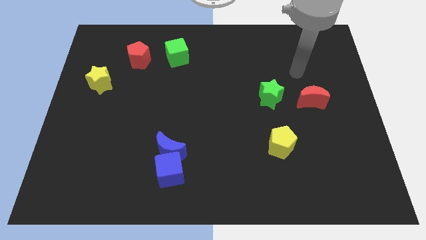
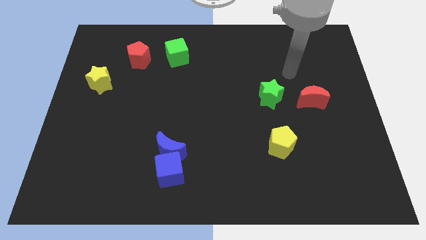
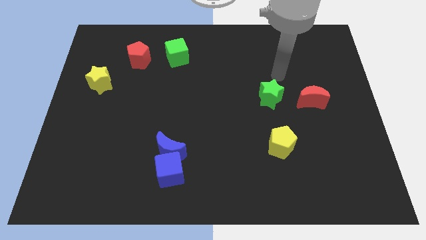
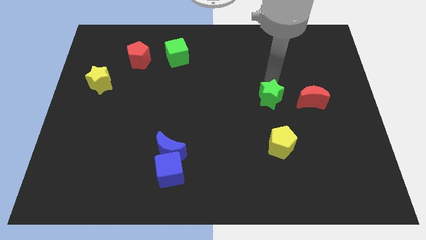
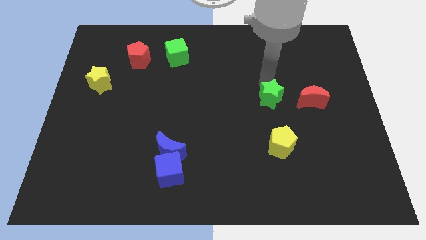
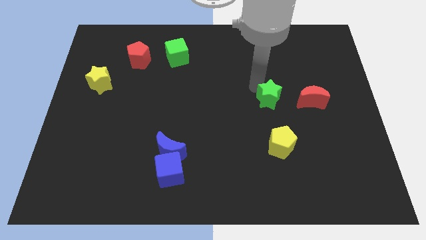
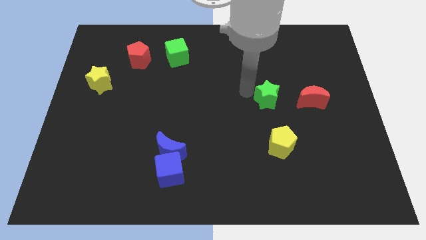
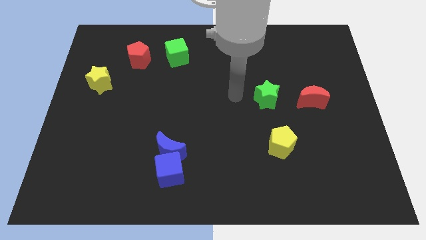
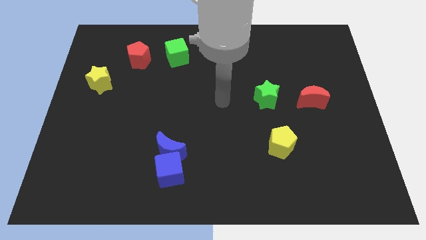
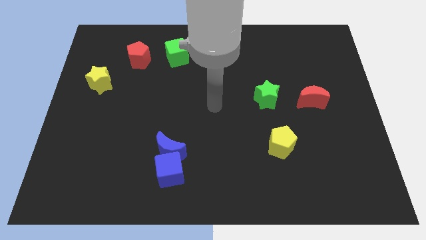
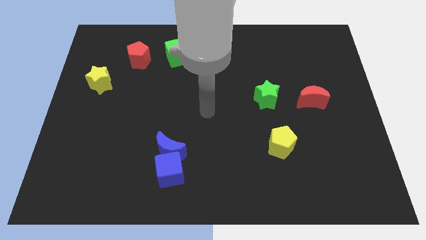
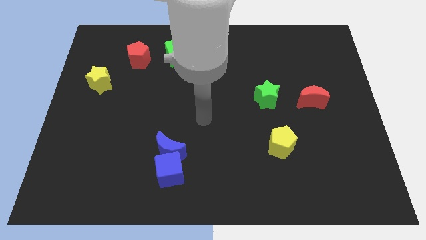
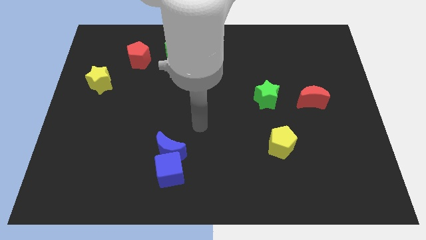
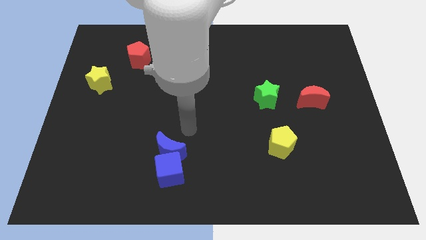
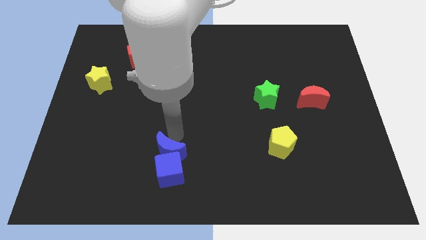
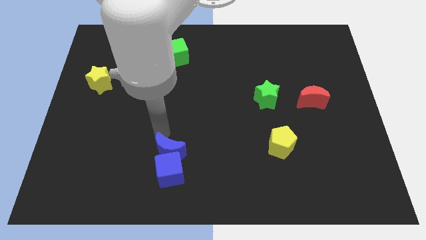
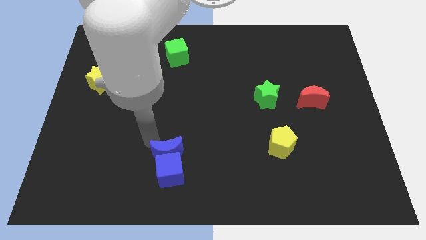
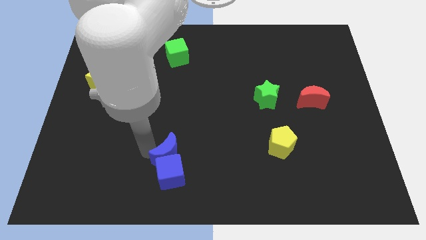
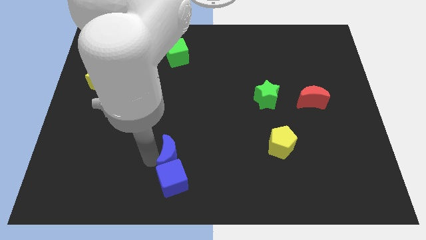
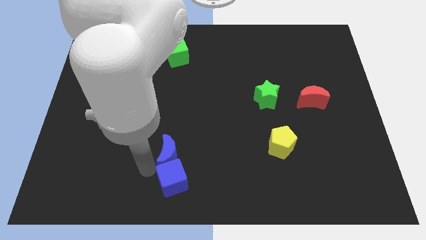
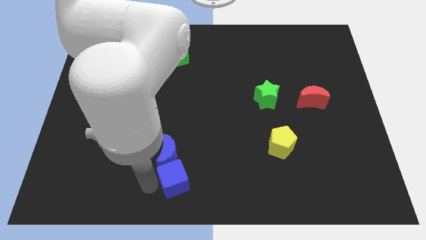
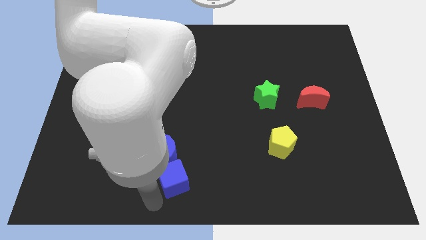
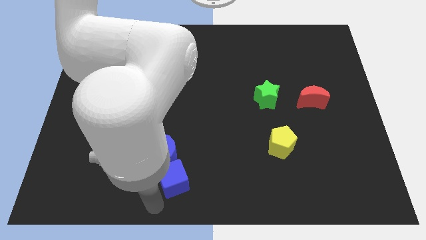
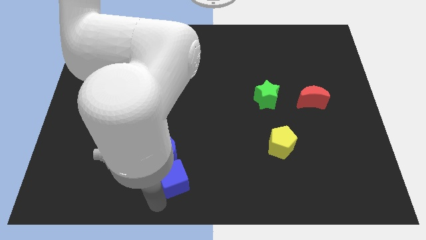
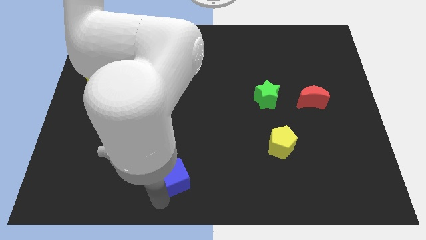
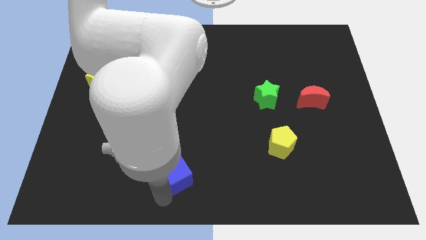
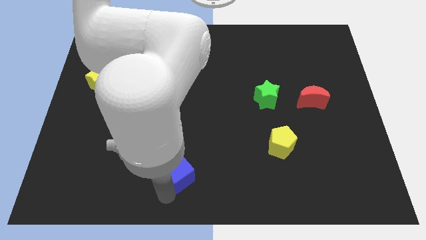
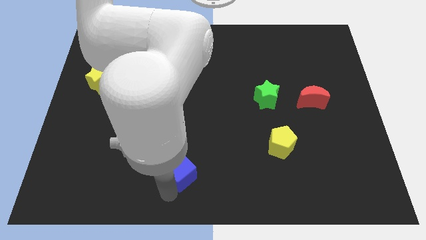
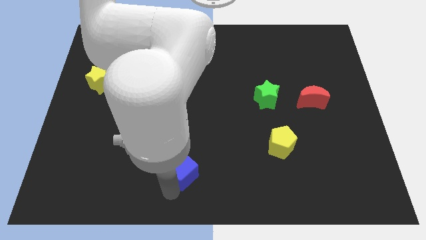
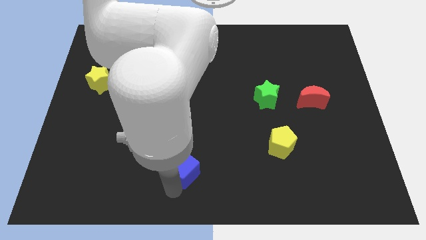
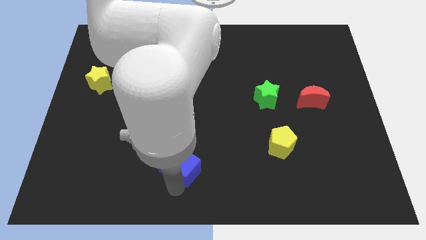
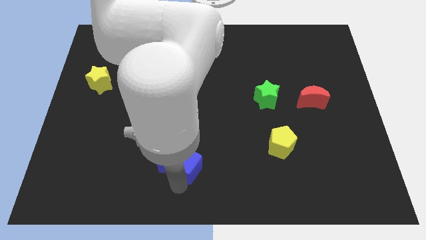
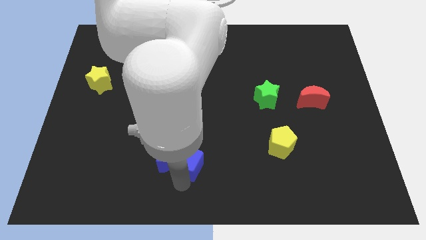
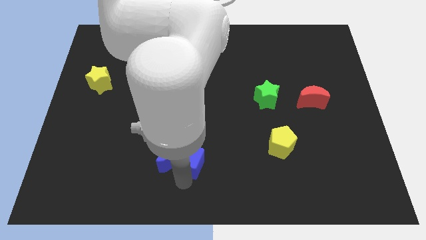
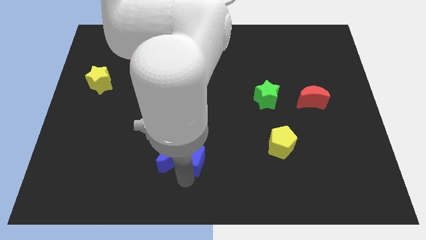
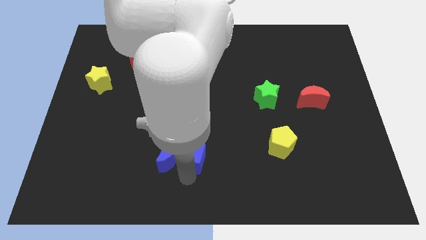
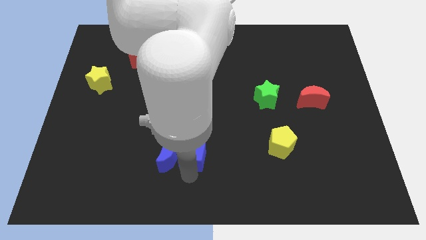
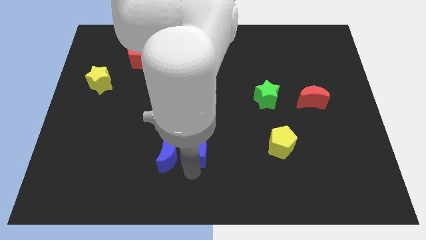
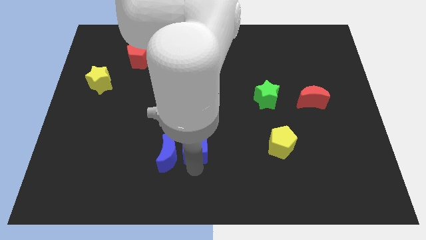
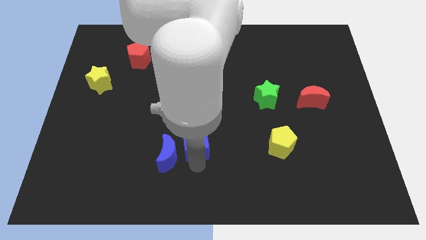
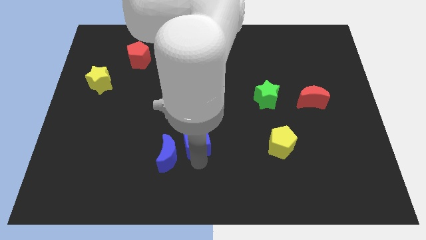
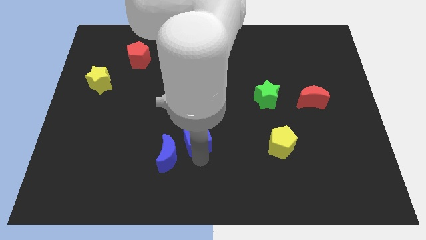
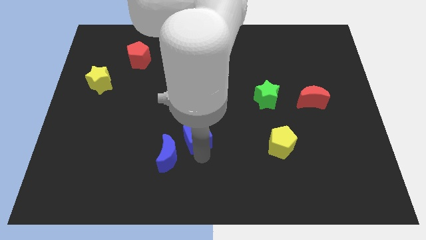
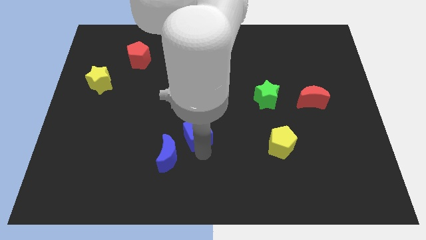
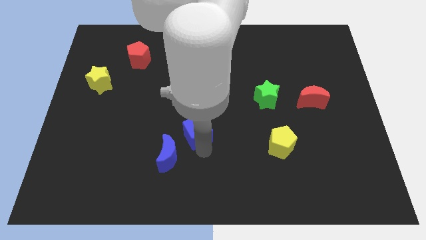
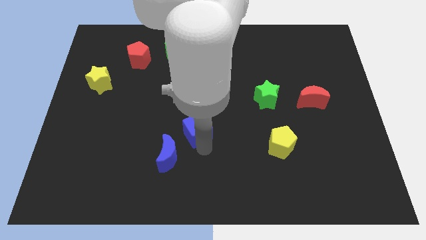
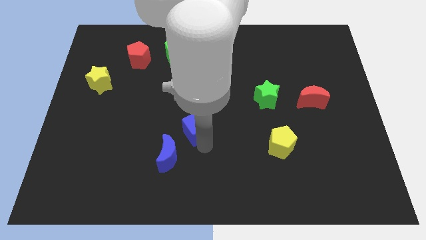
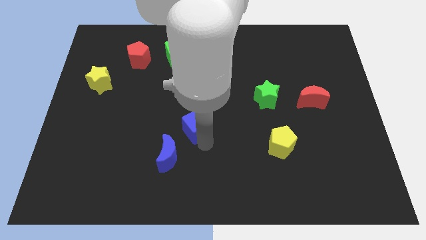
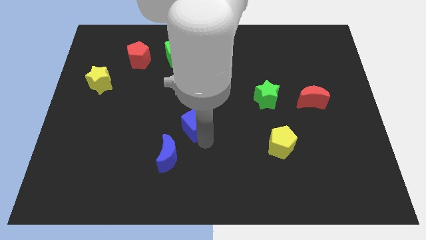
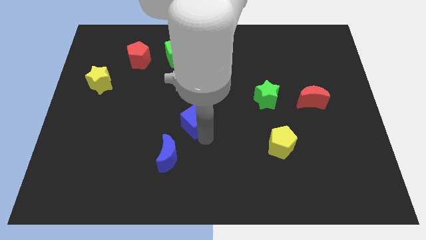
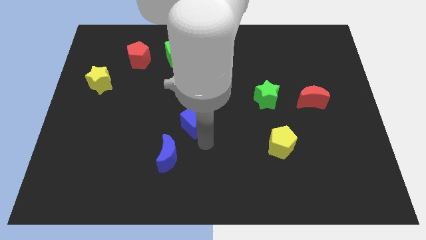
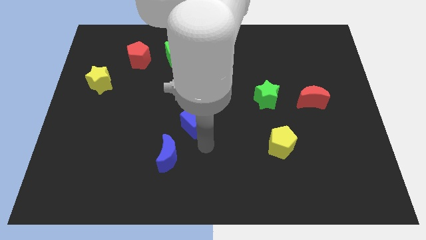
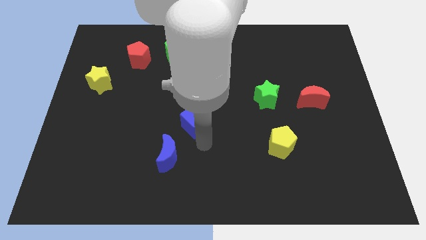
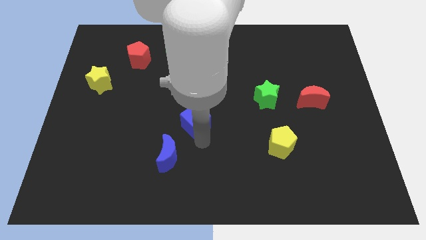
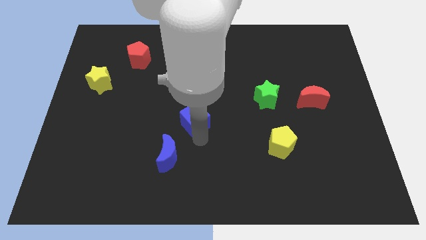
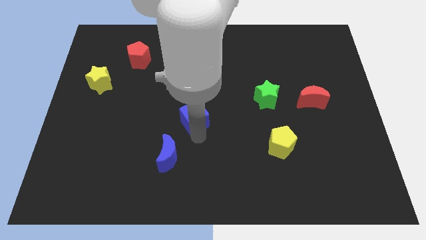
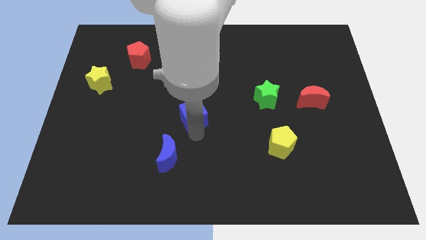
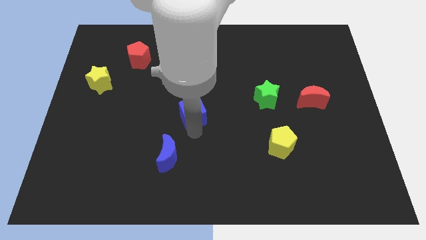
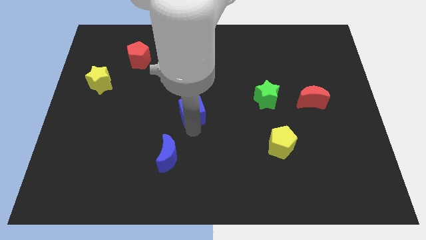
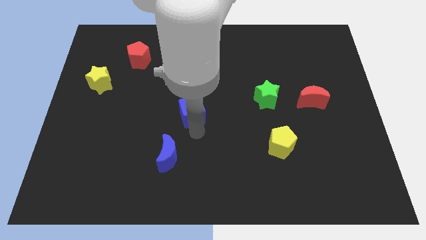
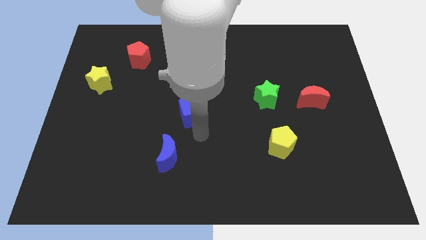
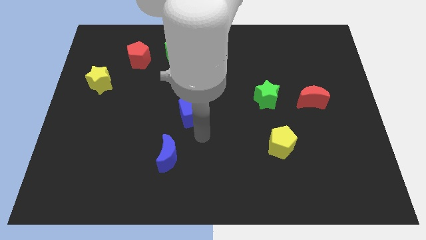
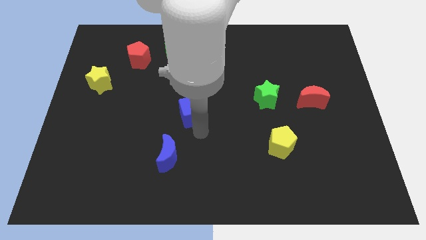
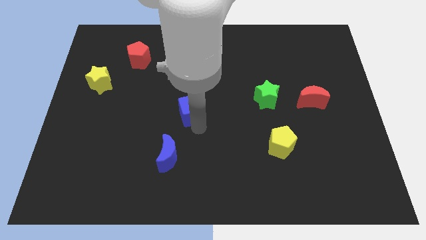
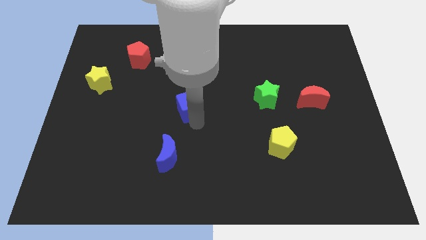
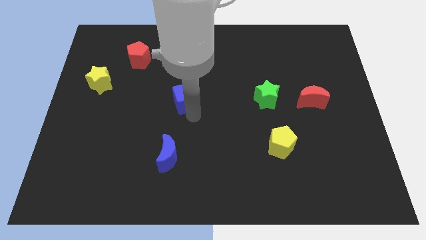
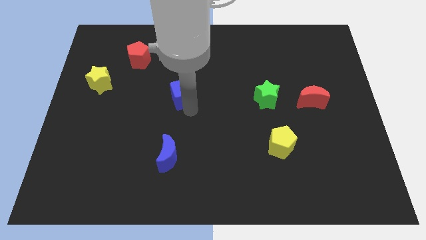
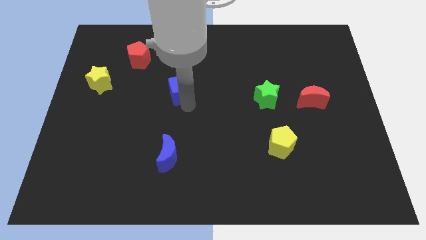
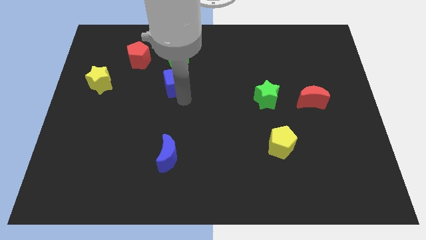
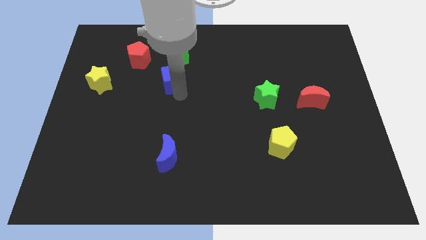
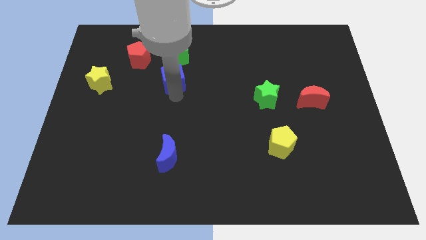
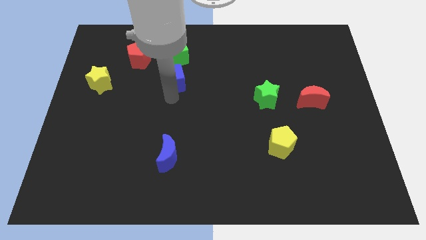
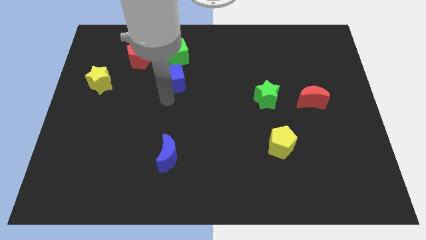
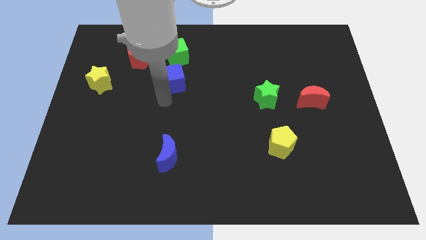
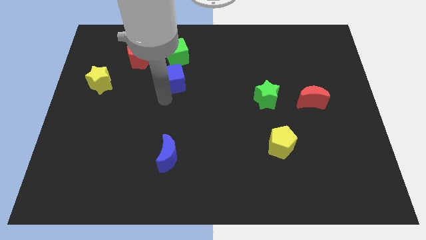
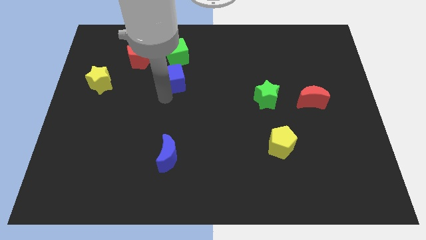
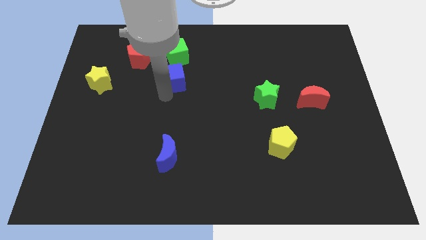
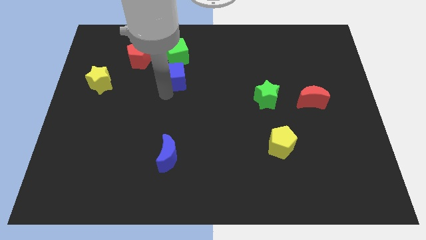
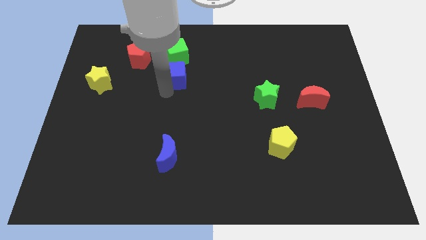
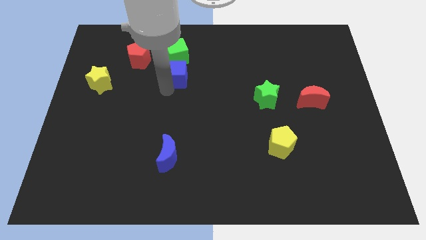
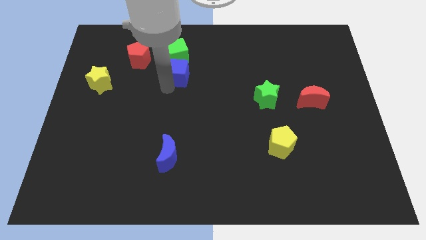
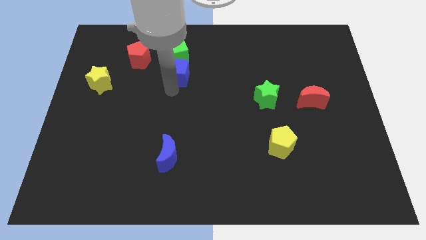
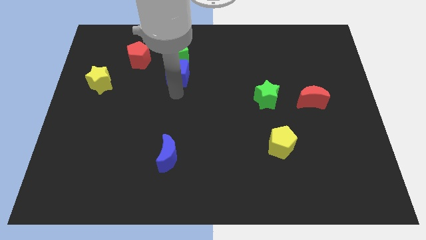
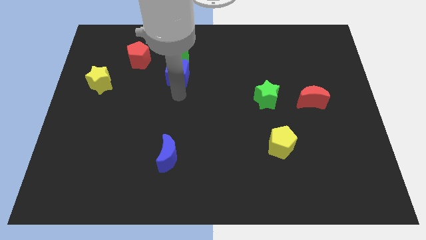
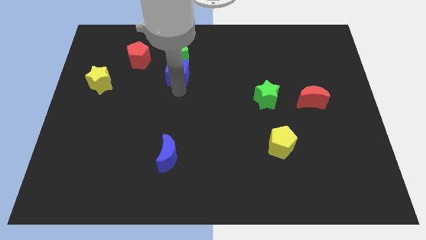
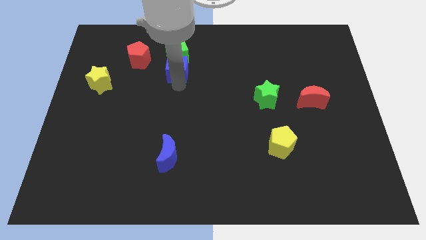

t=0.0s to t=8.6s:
move the blue cube towards the green cube
